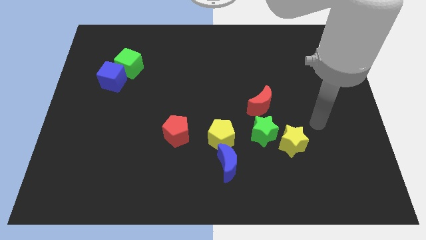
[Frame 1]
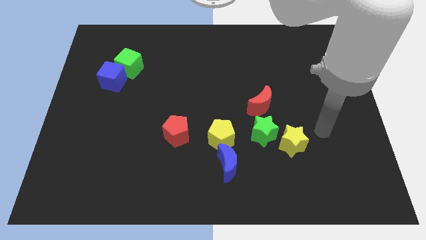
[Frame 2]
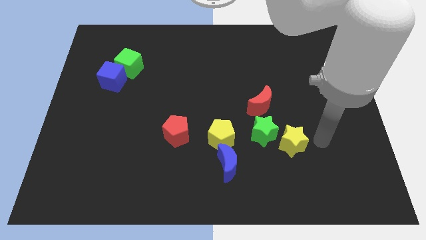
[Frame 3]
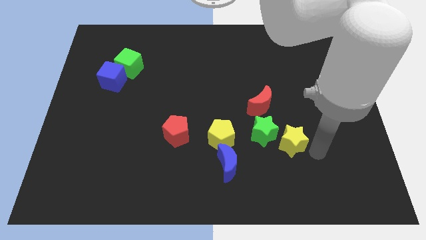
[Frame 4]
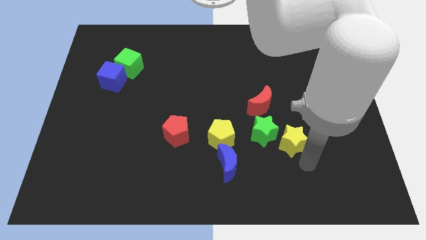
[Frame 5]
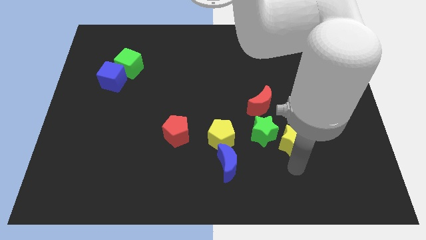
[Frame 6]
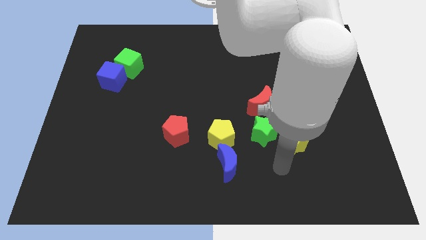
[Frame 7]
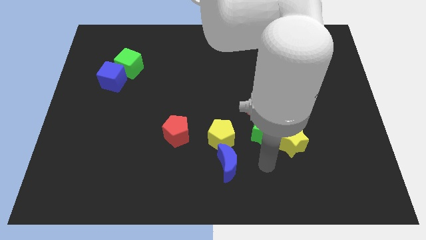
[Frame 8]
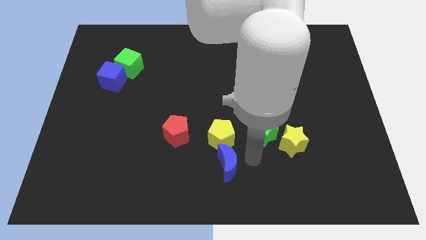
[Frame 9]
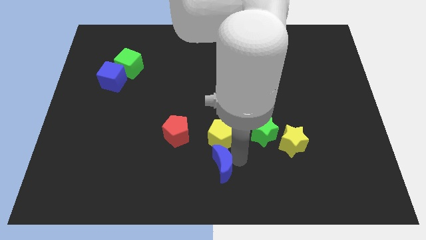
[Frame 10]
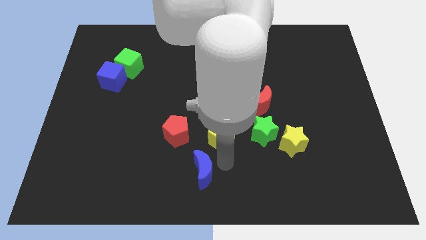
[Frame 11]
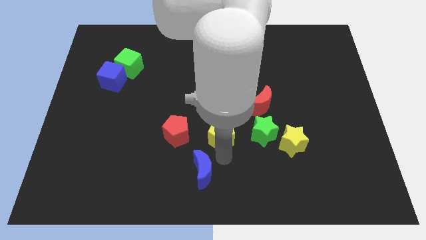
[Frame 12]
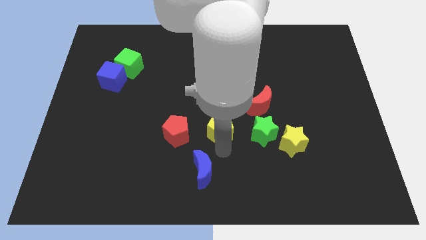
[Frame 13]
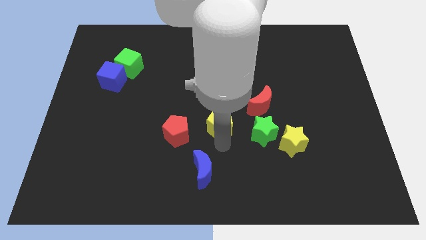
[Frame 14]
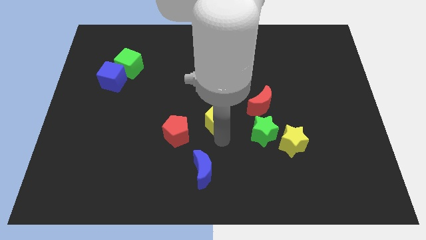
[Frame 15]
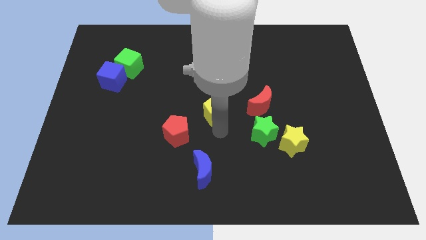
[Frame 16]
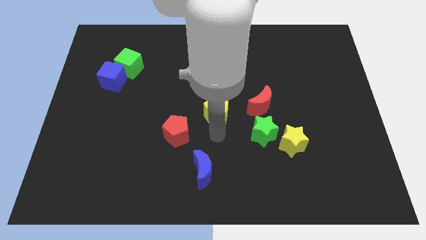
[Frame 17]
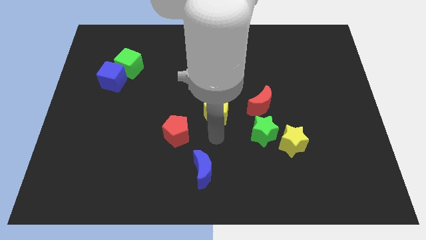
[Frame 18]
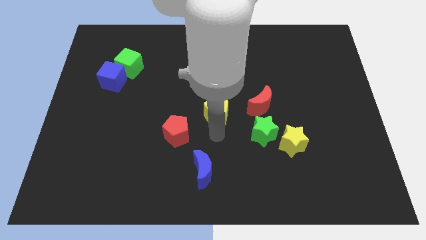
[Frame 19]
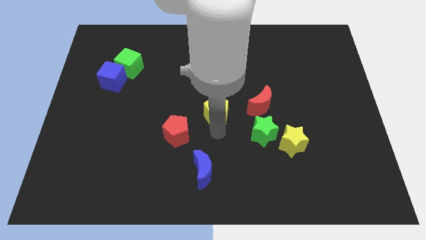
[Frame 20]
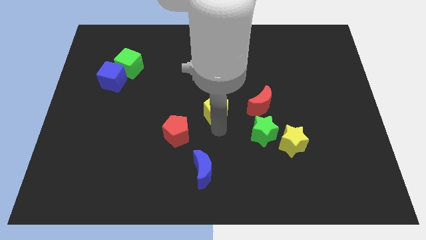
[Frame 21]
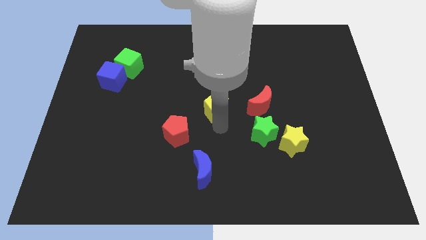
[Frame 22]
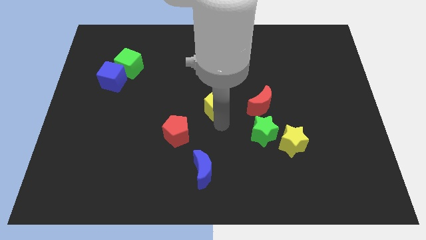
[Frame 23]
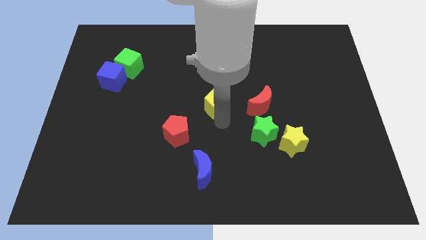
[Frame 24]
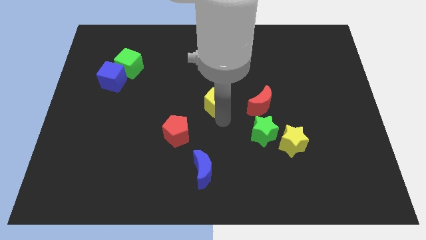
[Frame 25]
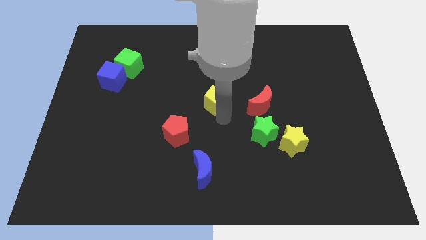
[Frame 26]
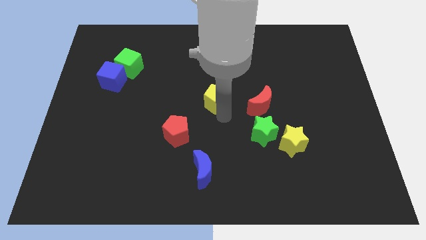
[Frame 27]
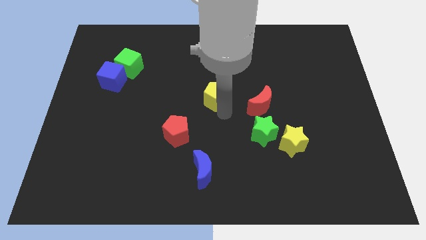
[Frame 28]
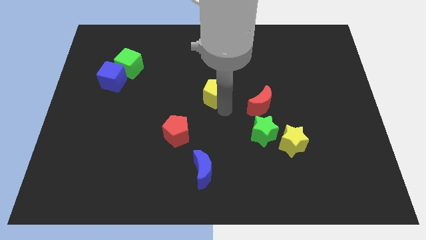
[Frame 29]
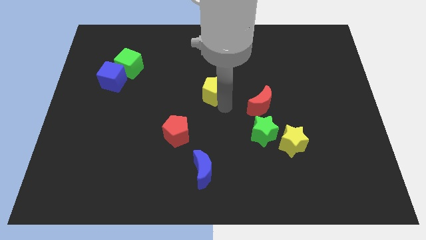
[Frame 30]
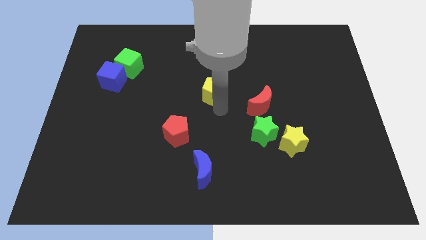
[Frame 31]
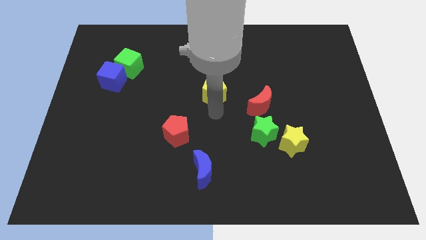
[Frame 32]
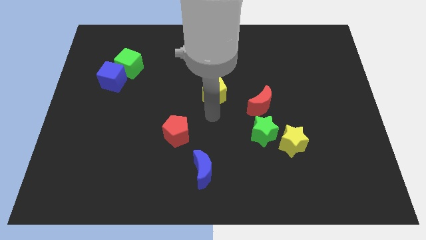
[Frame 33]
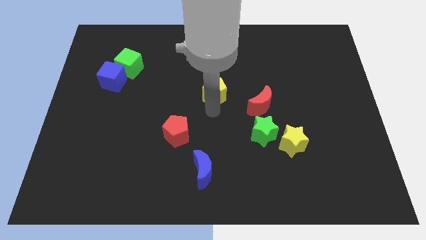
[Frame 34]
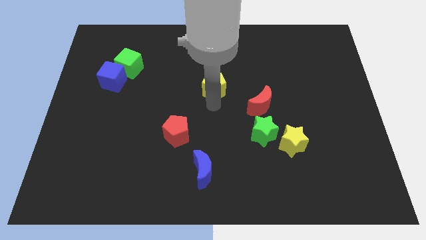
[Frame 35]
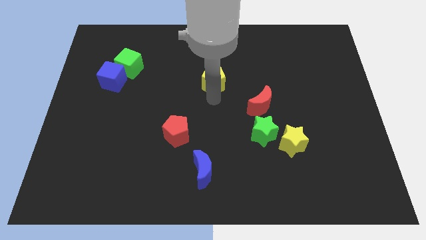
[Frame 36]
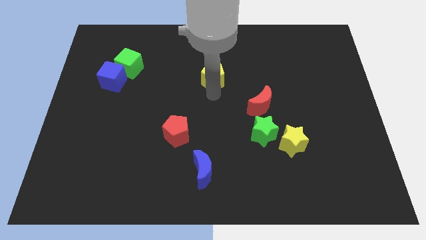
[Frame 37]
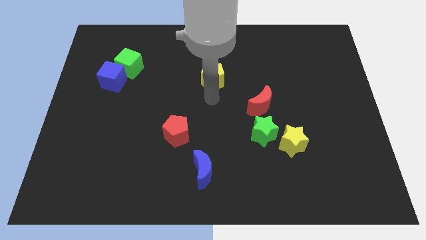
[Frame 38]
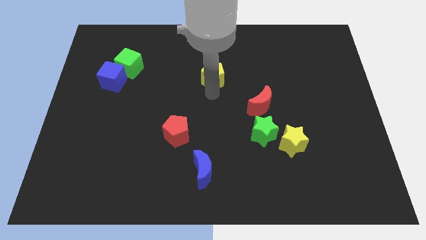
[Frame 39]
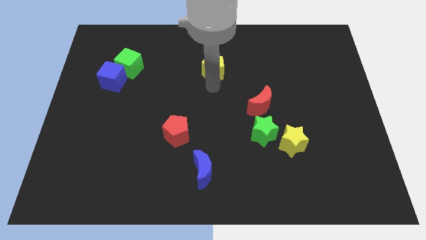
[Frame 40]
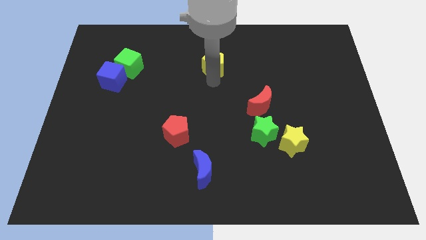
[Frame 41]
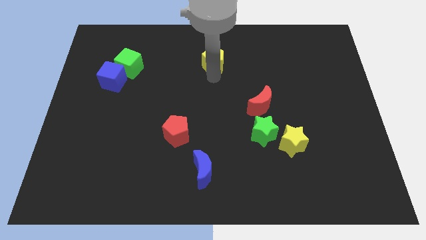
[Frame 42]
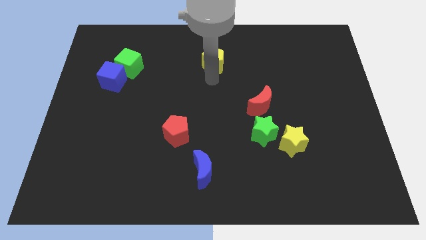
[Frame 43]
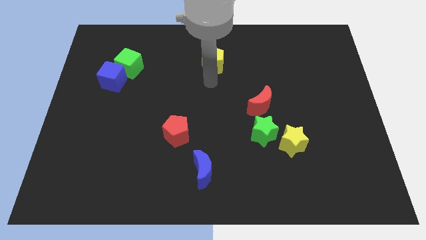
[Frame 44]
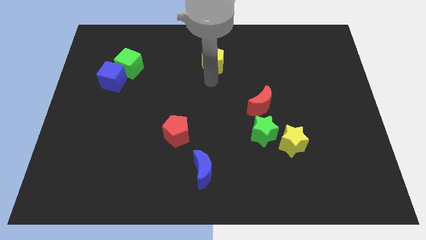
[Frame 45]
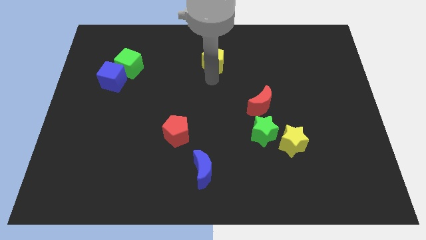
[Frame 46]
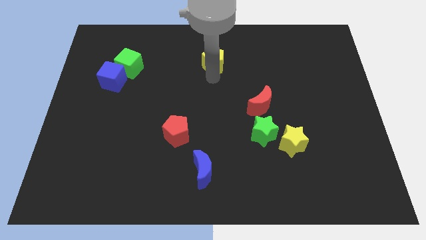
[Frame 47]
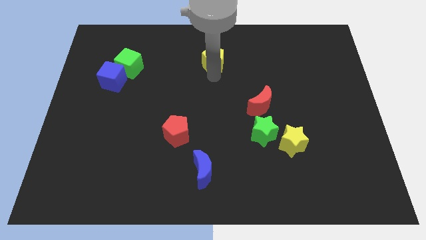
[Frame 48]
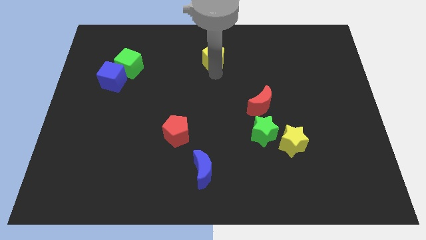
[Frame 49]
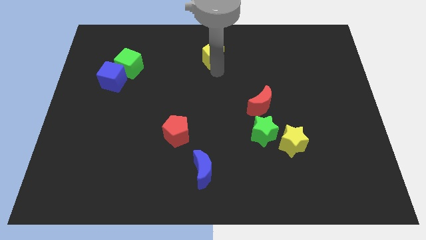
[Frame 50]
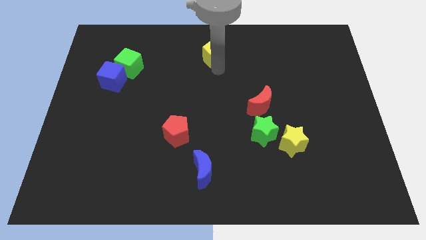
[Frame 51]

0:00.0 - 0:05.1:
slide the yellow pentagon to the top side

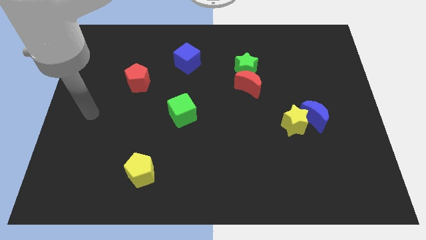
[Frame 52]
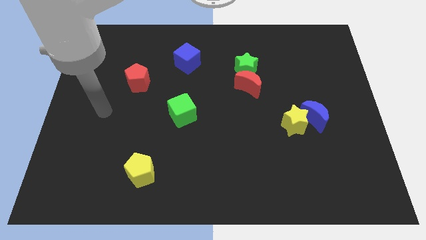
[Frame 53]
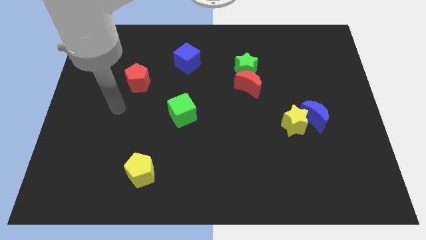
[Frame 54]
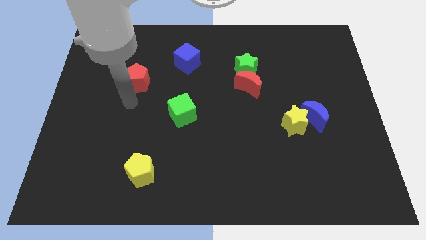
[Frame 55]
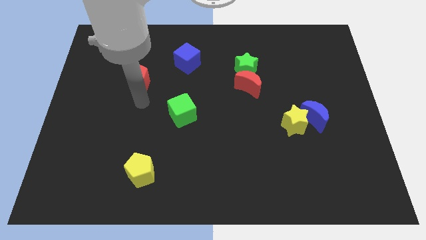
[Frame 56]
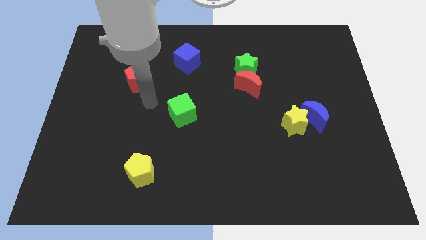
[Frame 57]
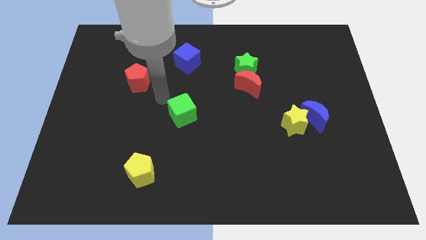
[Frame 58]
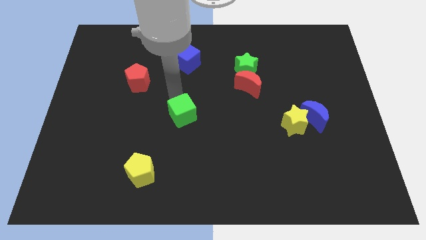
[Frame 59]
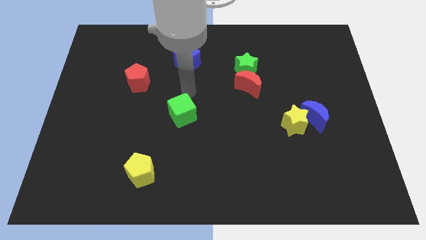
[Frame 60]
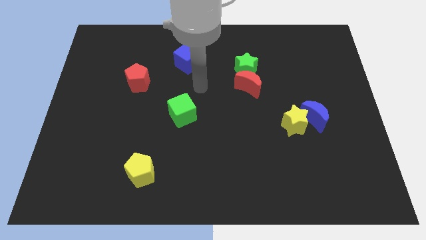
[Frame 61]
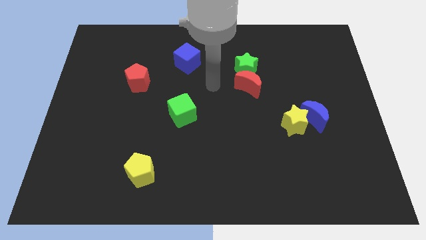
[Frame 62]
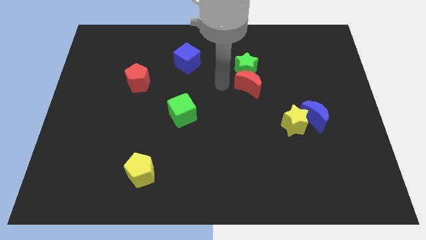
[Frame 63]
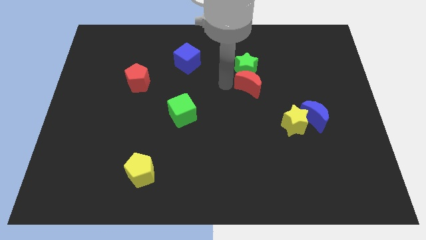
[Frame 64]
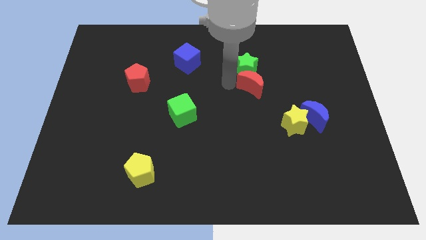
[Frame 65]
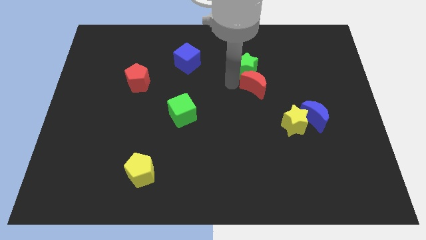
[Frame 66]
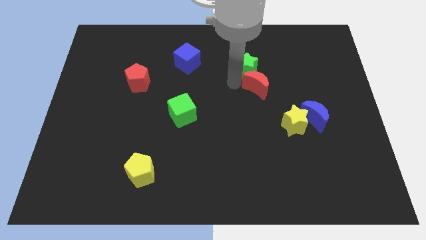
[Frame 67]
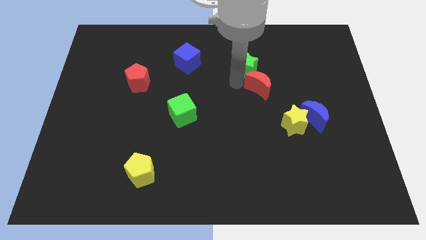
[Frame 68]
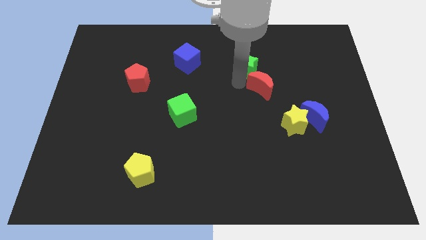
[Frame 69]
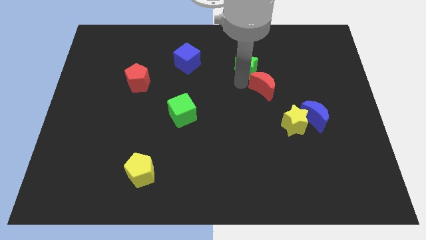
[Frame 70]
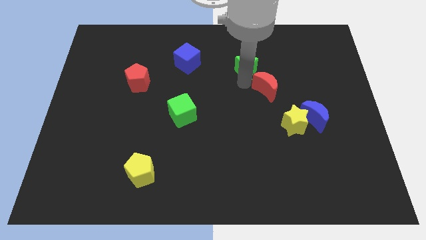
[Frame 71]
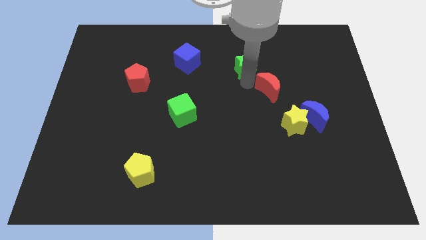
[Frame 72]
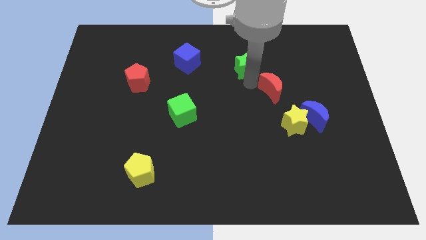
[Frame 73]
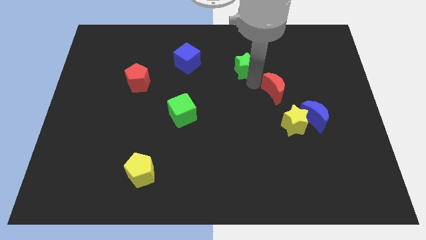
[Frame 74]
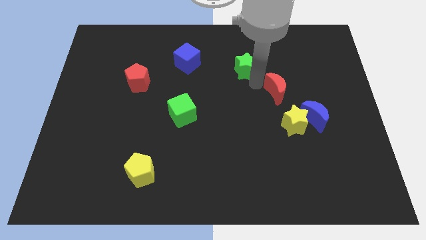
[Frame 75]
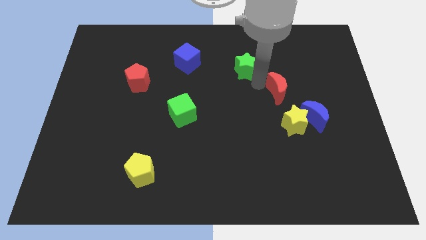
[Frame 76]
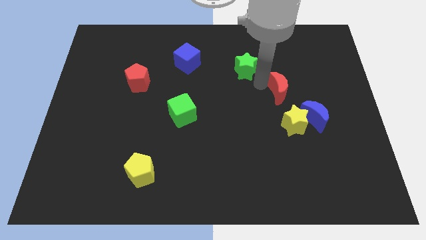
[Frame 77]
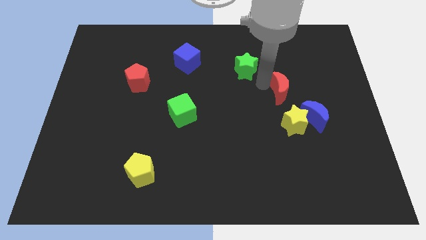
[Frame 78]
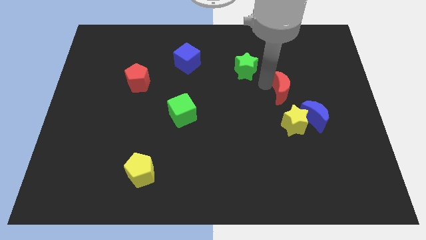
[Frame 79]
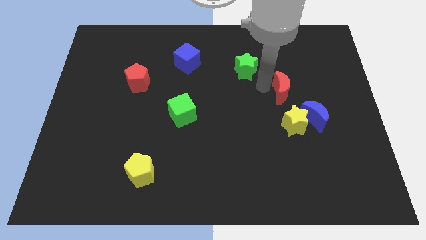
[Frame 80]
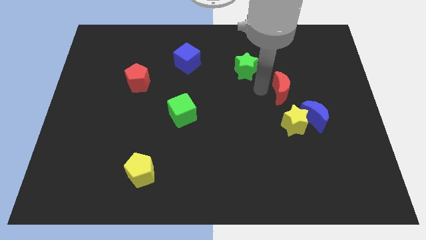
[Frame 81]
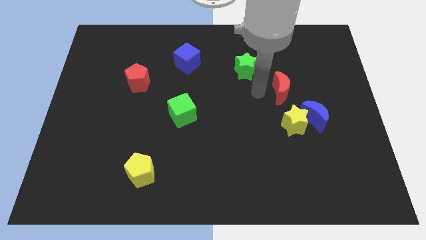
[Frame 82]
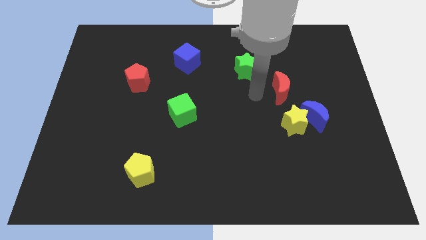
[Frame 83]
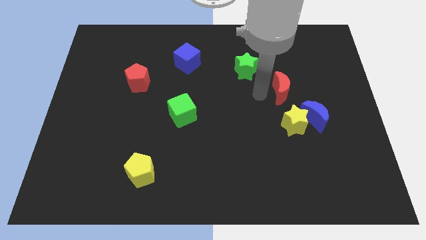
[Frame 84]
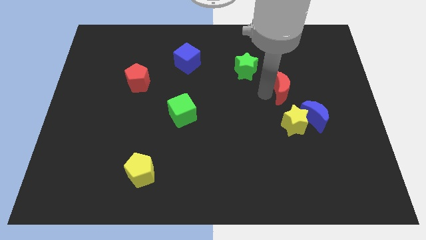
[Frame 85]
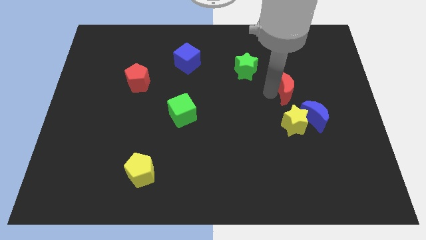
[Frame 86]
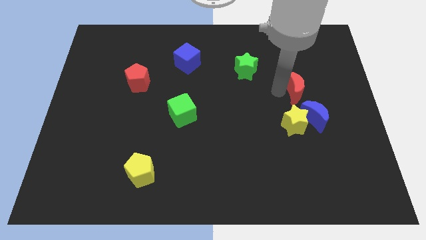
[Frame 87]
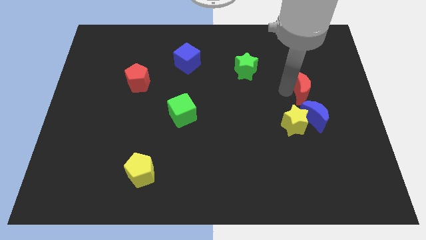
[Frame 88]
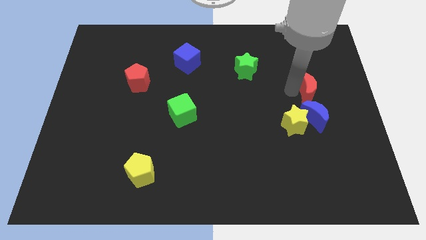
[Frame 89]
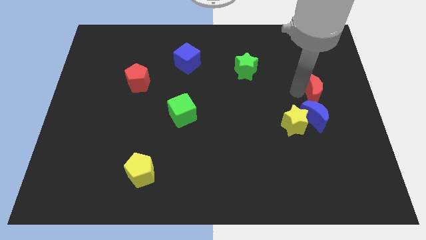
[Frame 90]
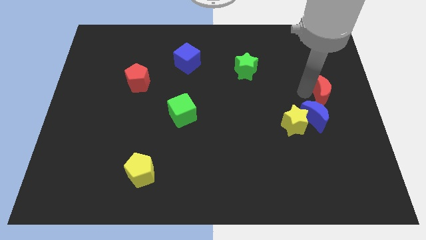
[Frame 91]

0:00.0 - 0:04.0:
put the red moon to the center right
